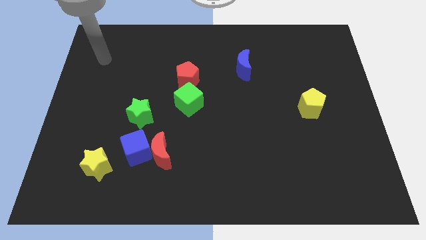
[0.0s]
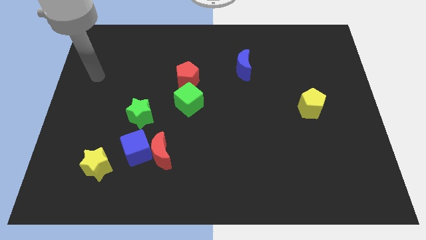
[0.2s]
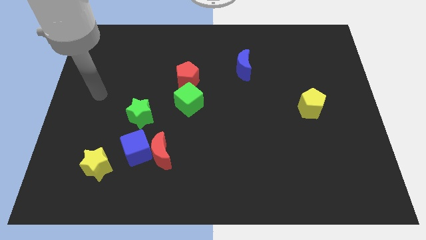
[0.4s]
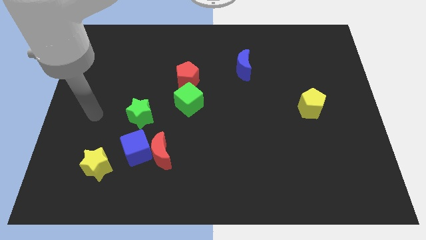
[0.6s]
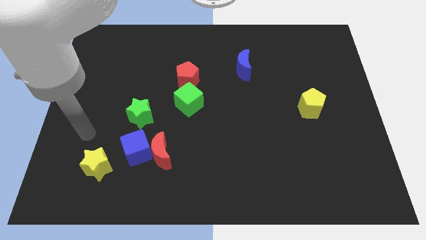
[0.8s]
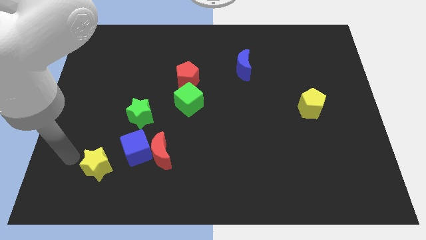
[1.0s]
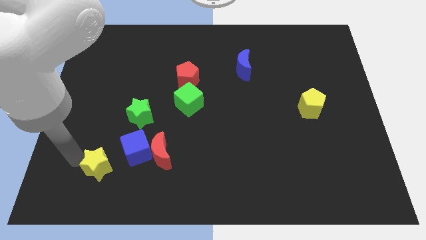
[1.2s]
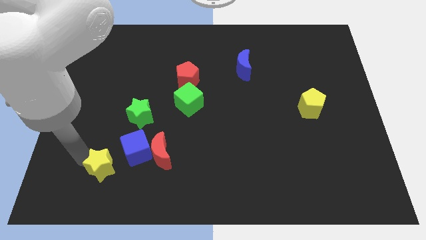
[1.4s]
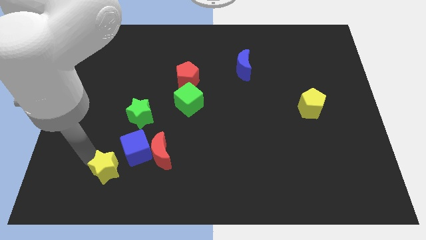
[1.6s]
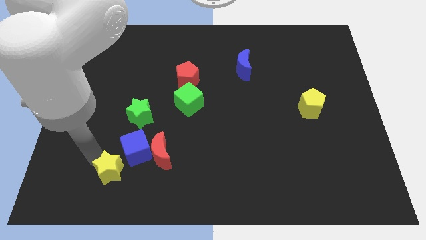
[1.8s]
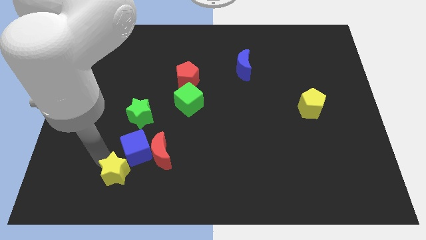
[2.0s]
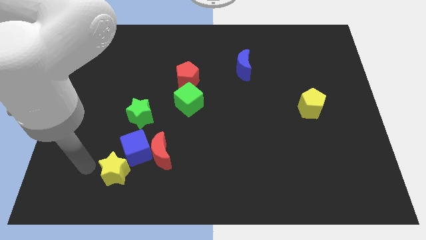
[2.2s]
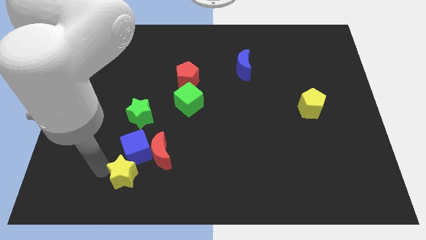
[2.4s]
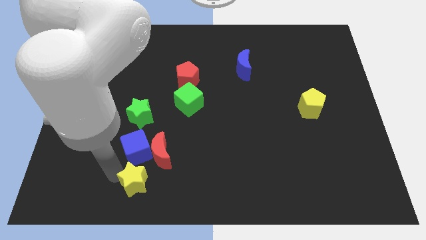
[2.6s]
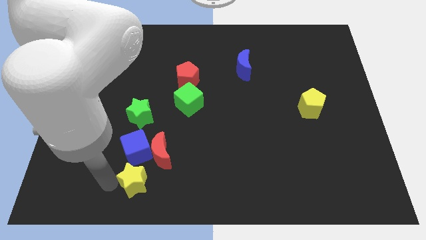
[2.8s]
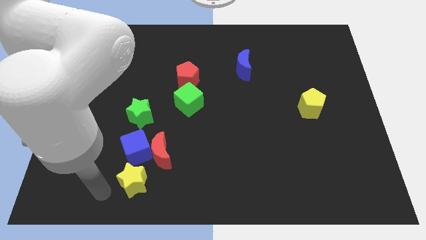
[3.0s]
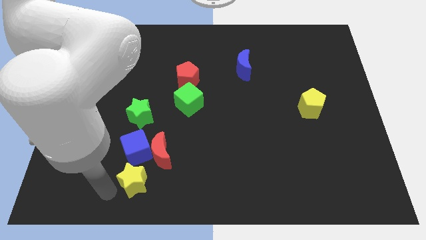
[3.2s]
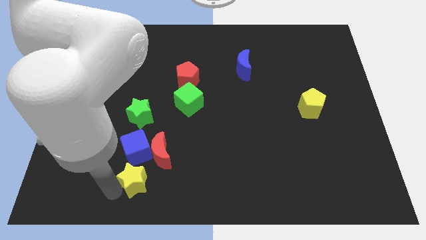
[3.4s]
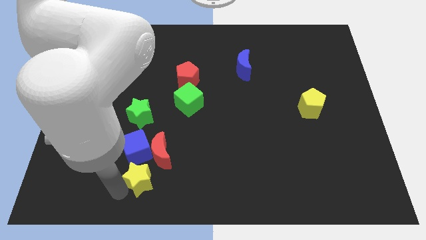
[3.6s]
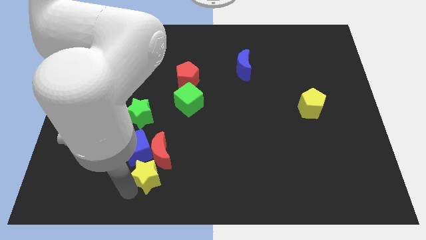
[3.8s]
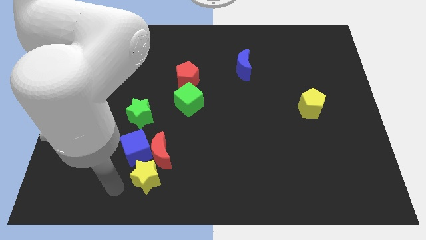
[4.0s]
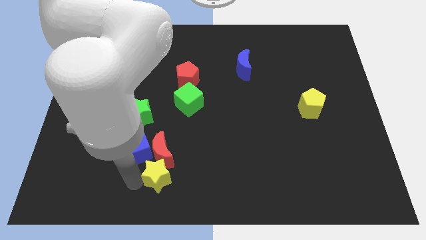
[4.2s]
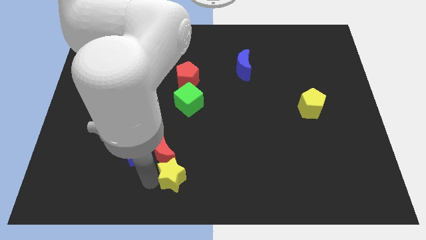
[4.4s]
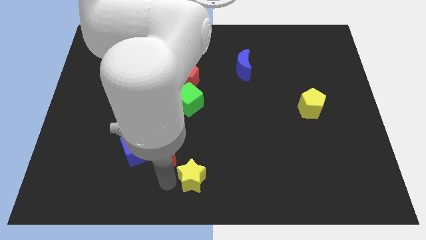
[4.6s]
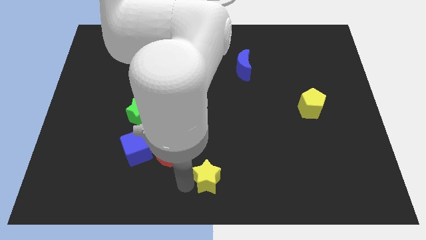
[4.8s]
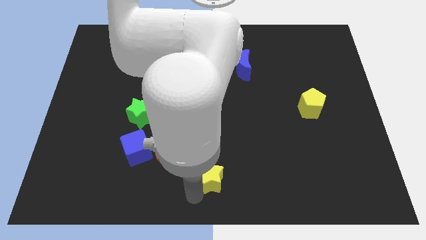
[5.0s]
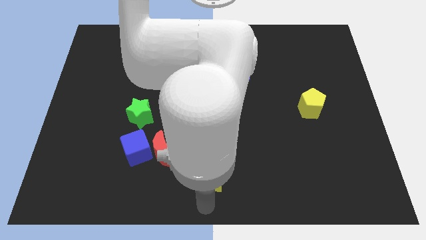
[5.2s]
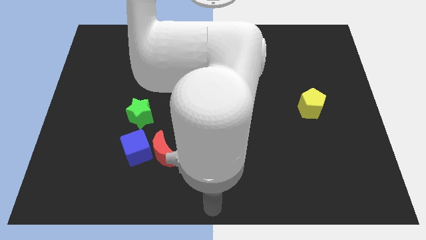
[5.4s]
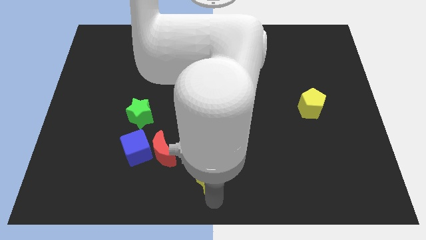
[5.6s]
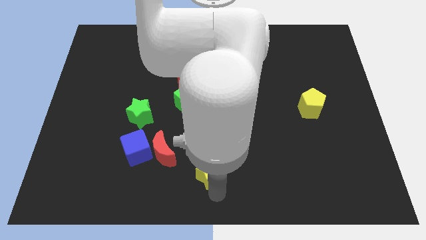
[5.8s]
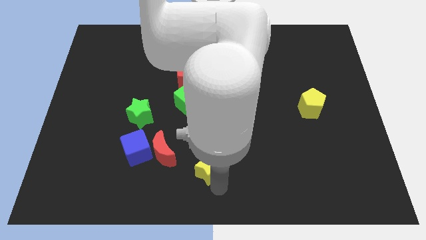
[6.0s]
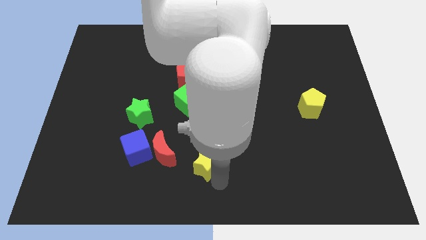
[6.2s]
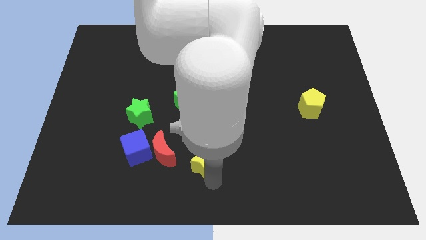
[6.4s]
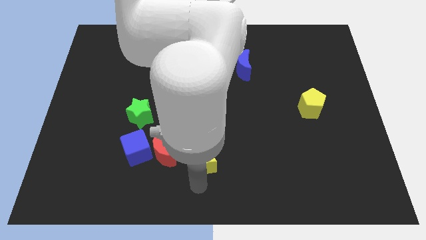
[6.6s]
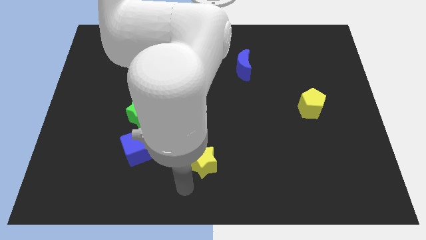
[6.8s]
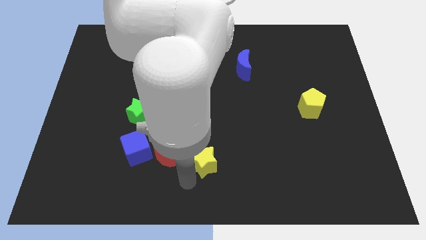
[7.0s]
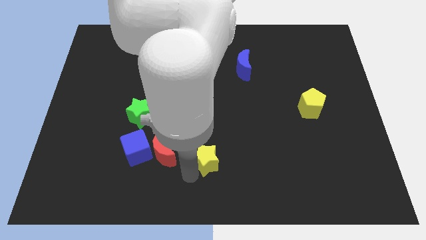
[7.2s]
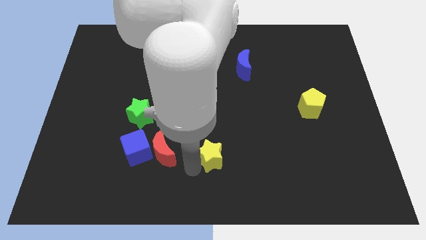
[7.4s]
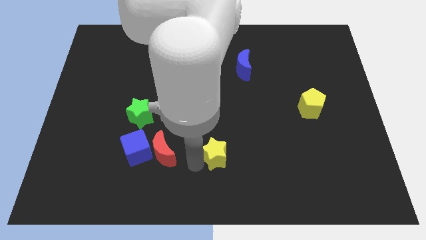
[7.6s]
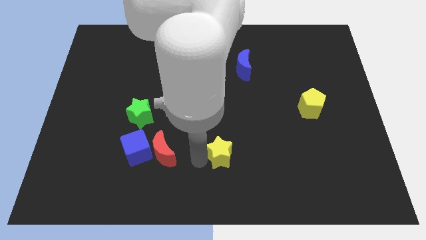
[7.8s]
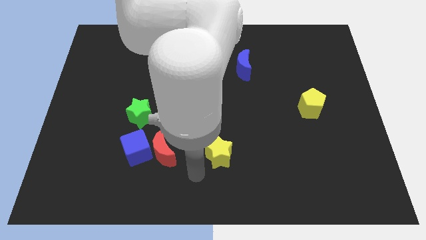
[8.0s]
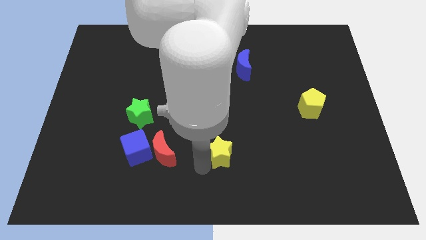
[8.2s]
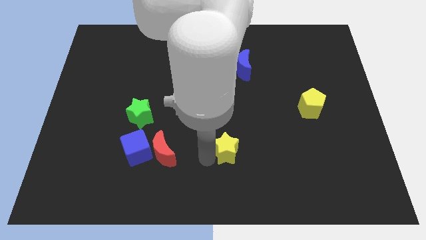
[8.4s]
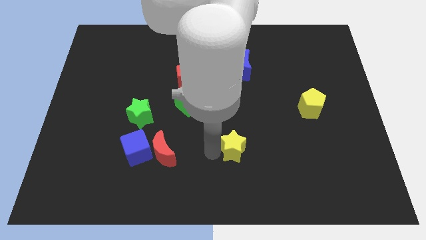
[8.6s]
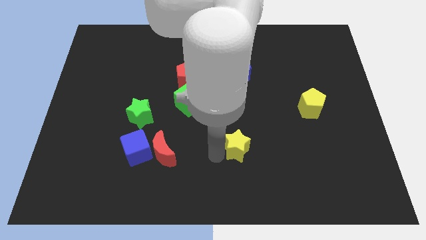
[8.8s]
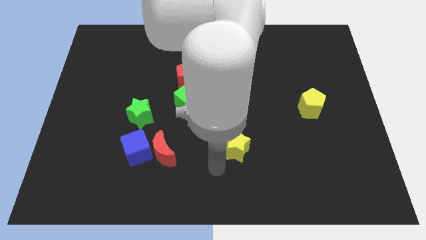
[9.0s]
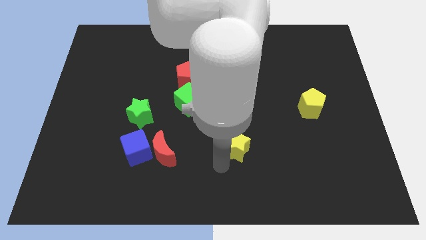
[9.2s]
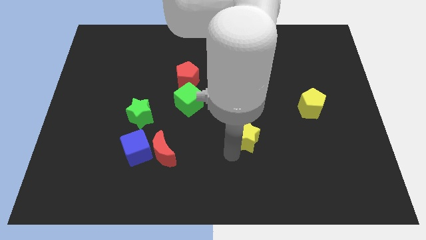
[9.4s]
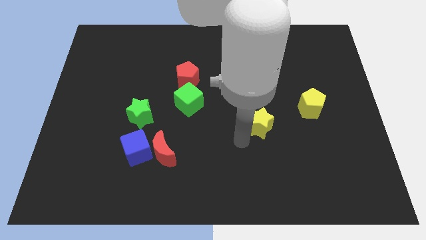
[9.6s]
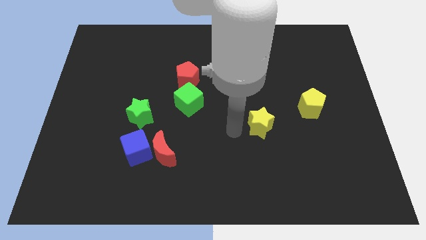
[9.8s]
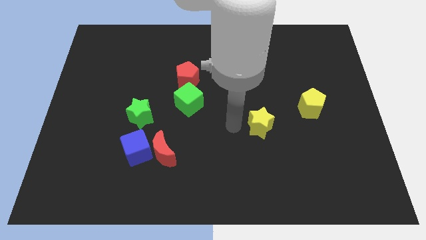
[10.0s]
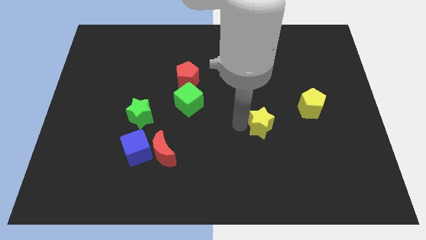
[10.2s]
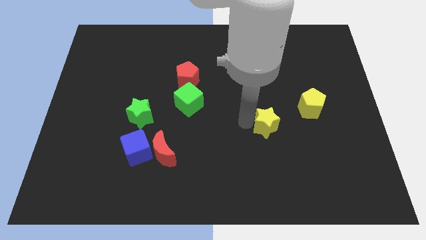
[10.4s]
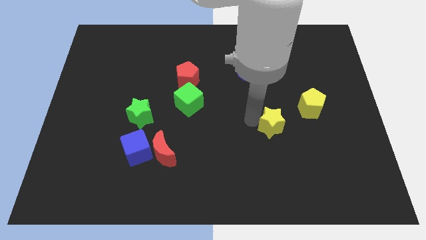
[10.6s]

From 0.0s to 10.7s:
put the yellow star to the bottom left side of the yellow pentagon
